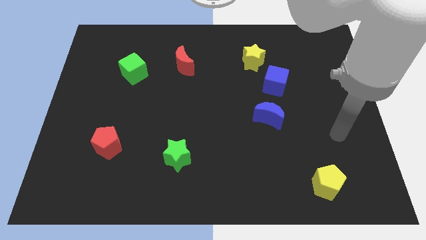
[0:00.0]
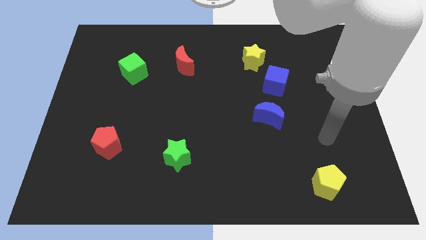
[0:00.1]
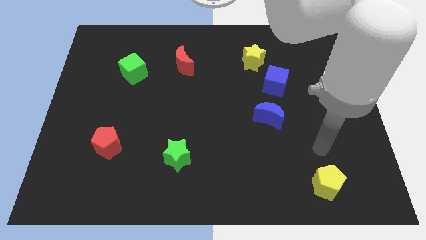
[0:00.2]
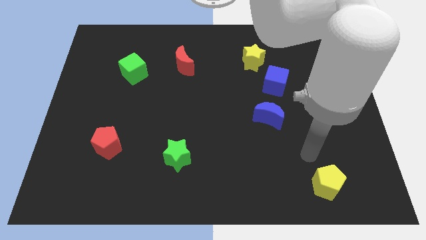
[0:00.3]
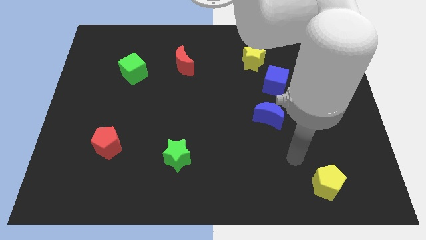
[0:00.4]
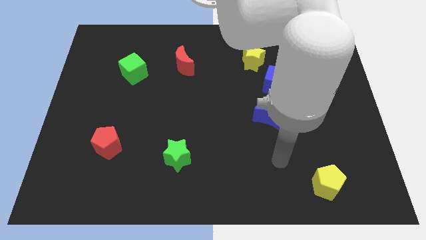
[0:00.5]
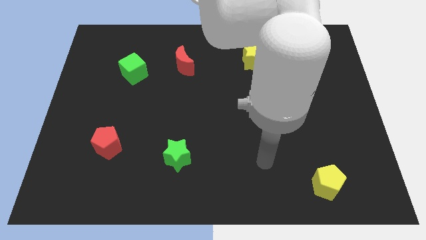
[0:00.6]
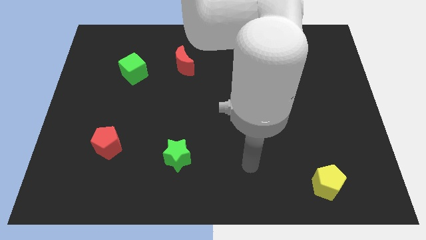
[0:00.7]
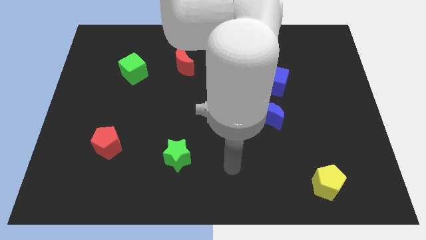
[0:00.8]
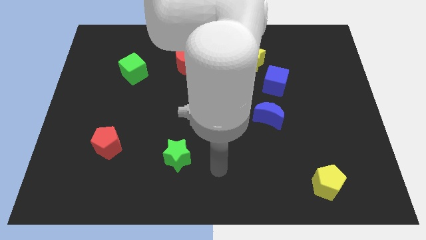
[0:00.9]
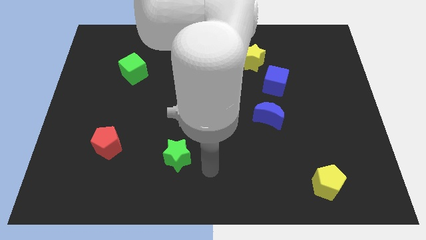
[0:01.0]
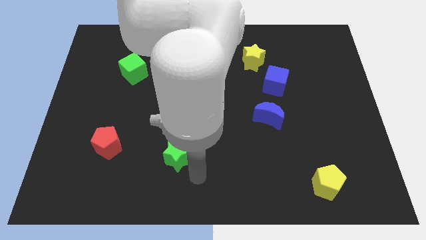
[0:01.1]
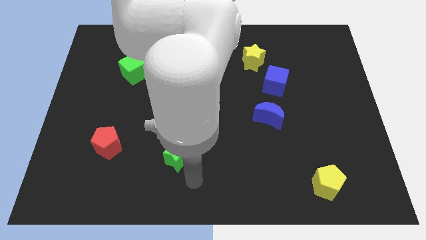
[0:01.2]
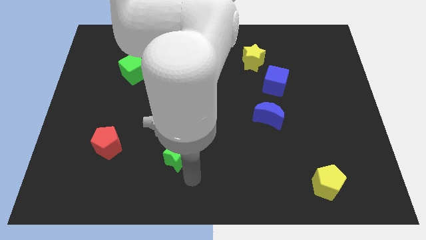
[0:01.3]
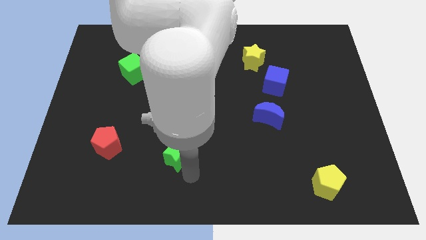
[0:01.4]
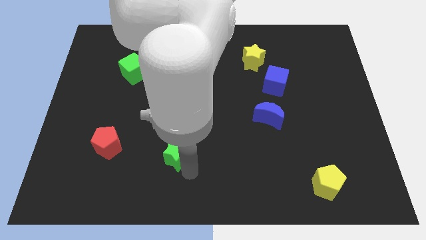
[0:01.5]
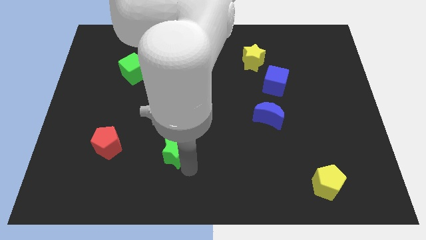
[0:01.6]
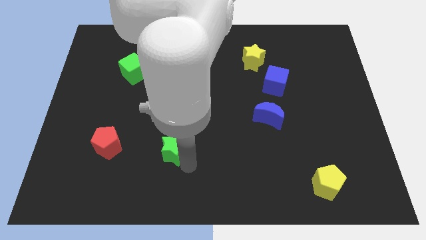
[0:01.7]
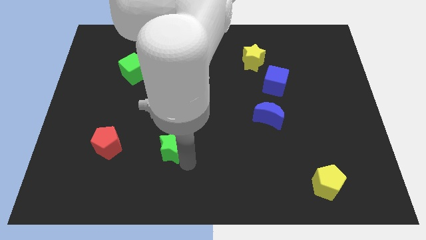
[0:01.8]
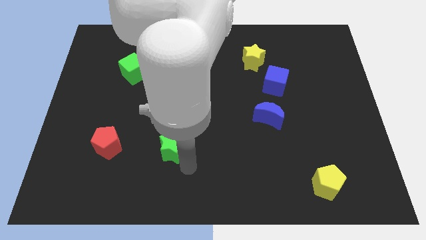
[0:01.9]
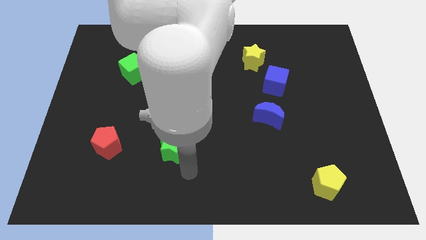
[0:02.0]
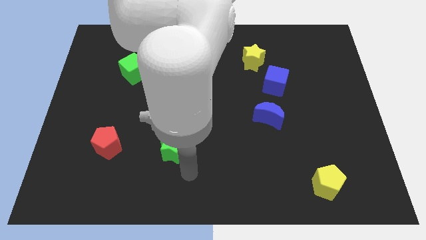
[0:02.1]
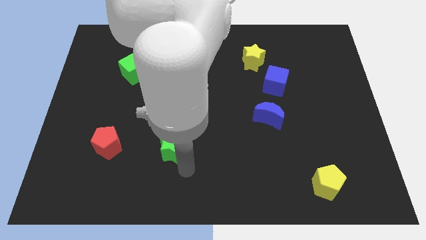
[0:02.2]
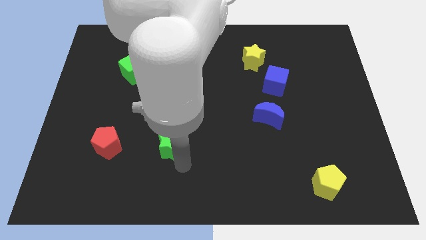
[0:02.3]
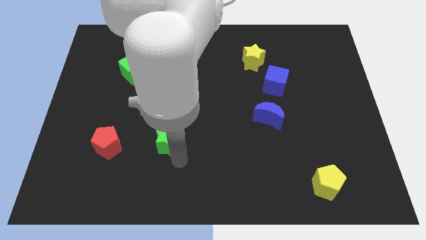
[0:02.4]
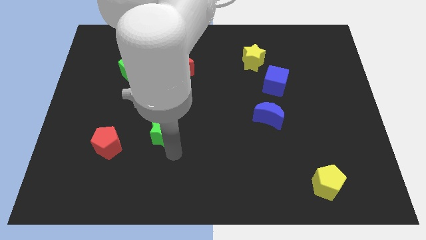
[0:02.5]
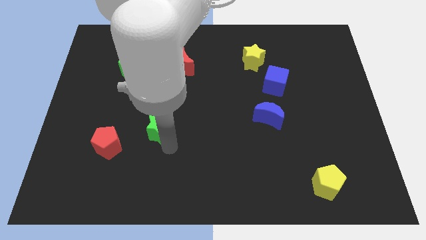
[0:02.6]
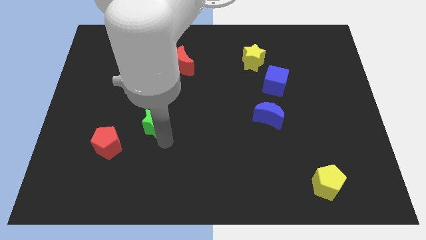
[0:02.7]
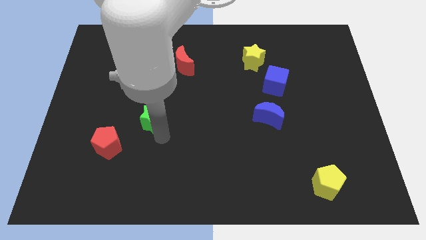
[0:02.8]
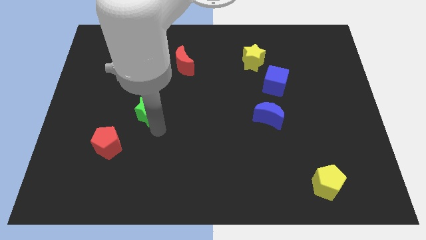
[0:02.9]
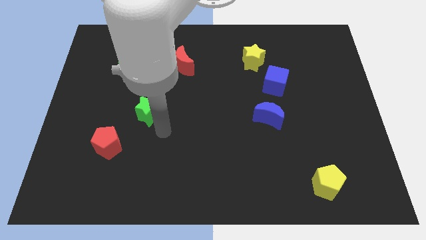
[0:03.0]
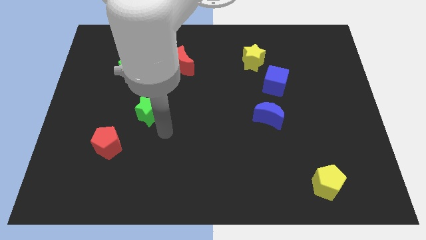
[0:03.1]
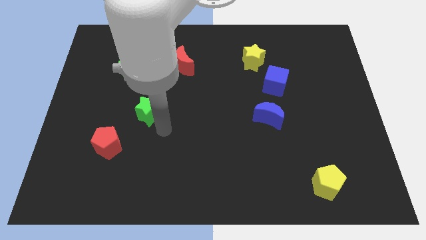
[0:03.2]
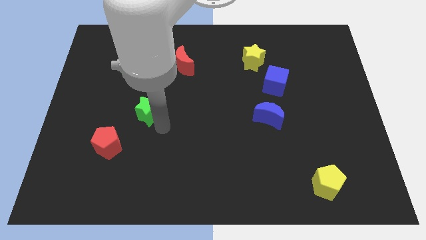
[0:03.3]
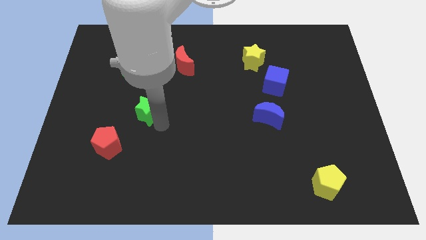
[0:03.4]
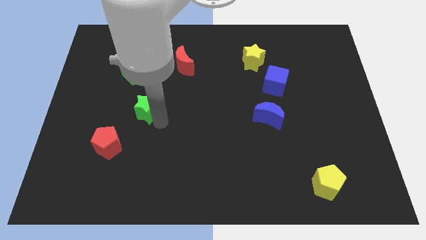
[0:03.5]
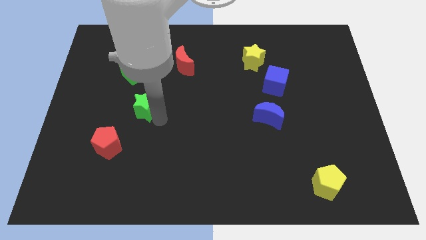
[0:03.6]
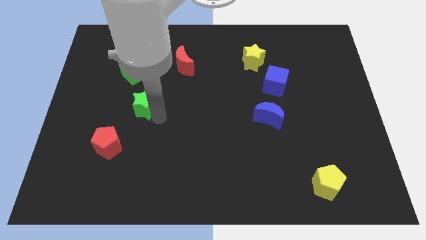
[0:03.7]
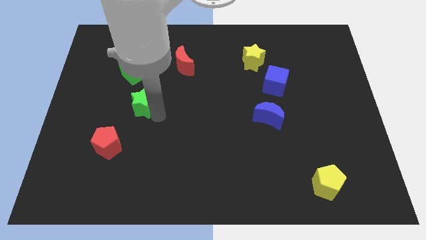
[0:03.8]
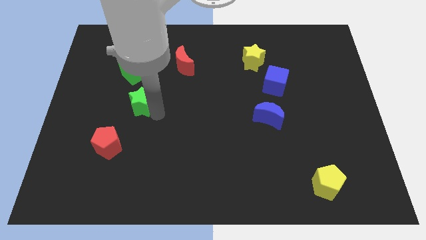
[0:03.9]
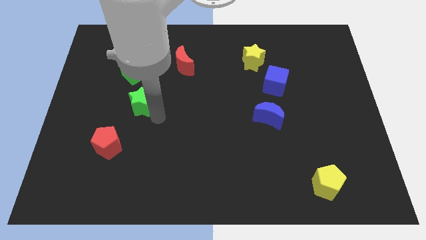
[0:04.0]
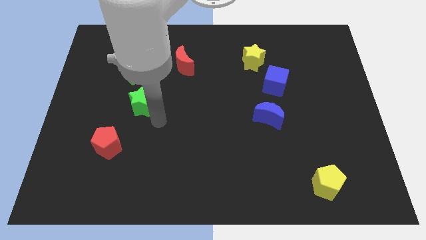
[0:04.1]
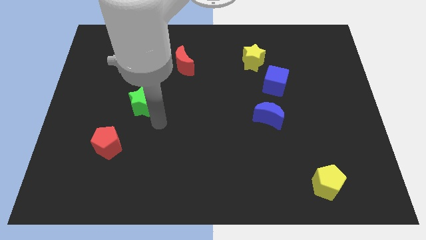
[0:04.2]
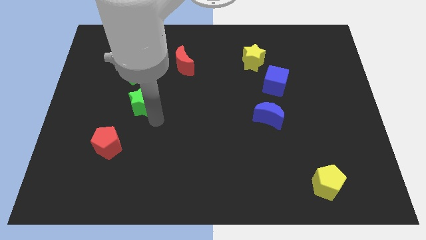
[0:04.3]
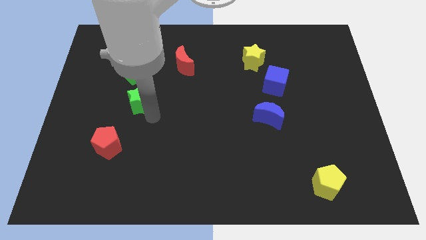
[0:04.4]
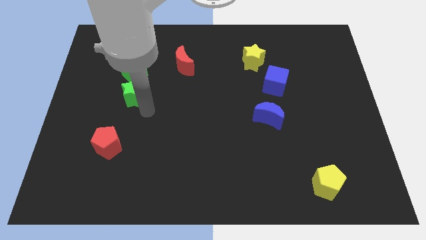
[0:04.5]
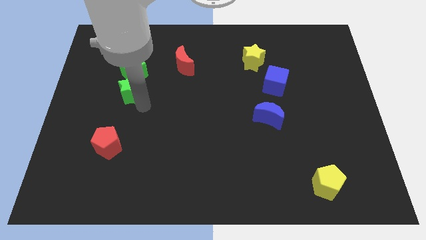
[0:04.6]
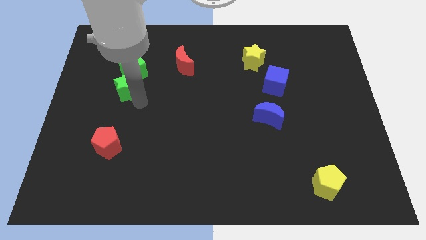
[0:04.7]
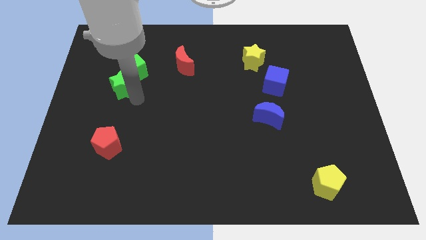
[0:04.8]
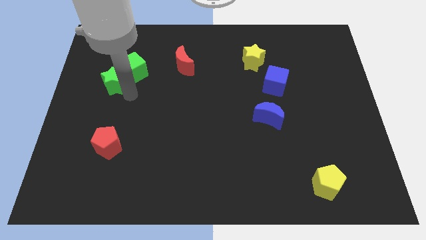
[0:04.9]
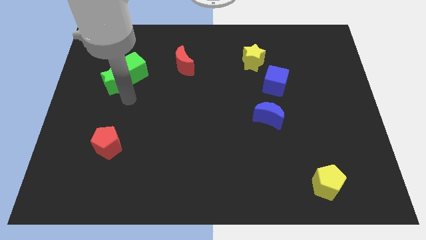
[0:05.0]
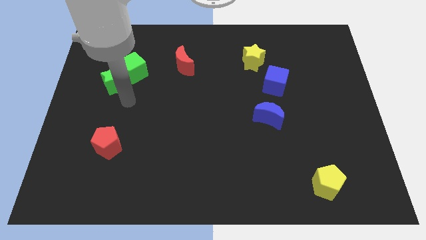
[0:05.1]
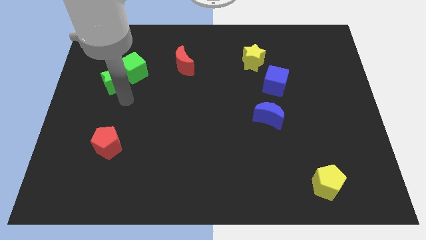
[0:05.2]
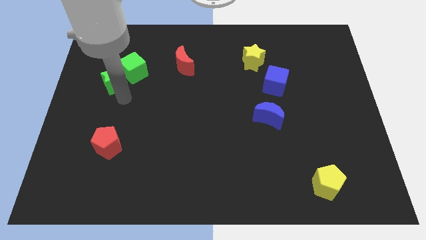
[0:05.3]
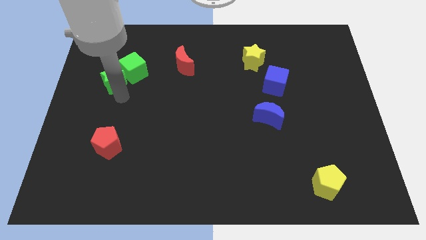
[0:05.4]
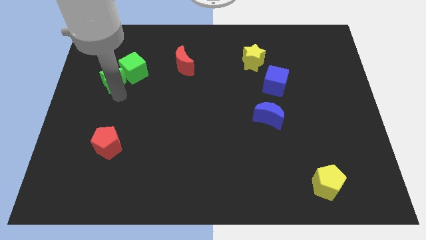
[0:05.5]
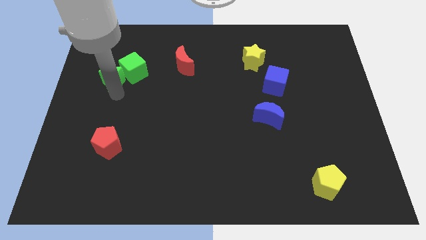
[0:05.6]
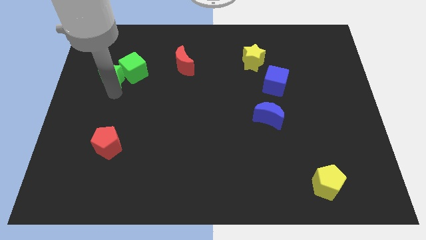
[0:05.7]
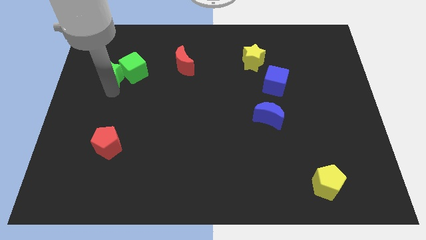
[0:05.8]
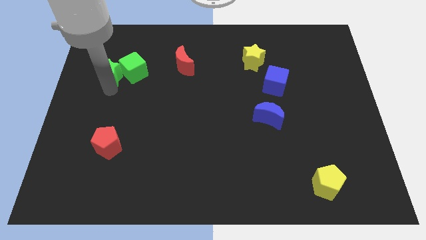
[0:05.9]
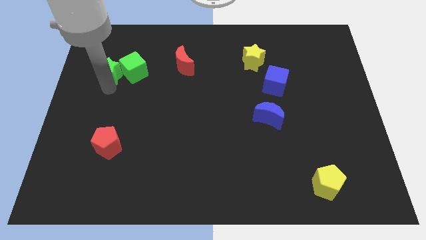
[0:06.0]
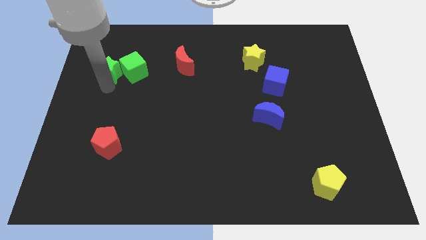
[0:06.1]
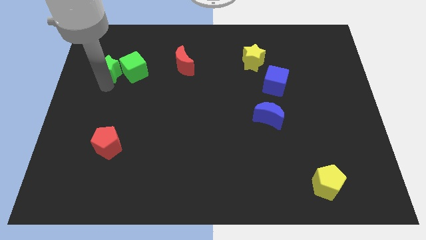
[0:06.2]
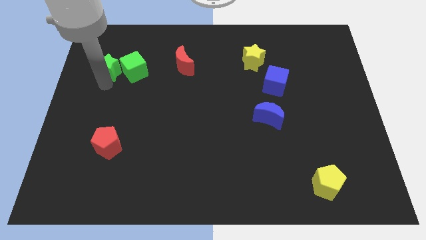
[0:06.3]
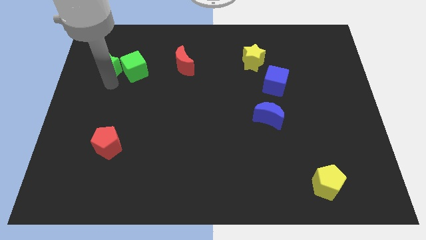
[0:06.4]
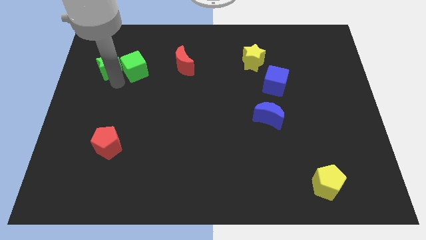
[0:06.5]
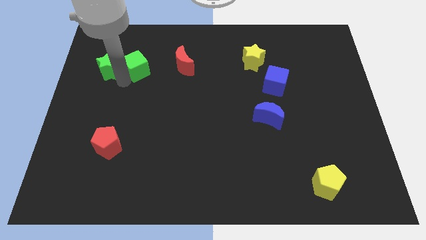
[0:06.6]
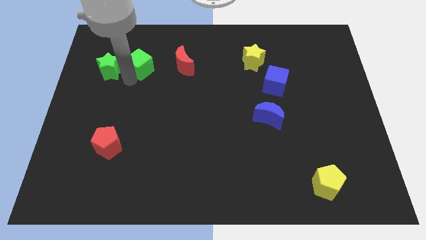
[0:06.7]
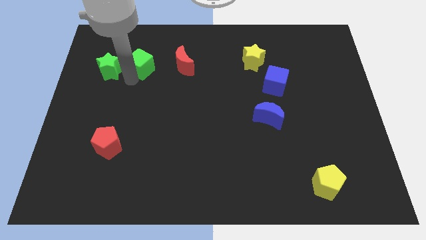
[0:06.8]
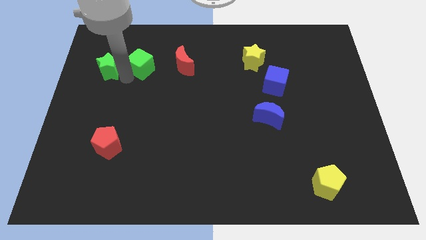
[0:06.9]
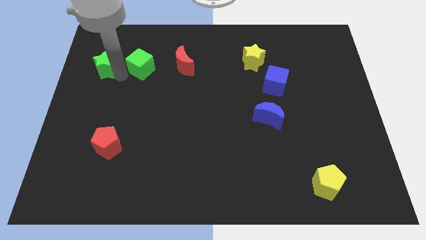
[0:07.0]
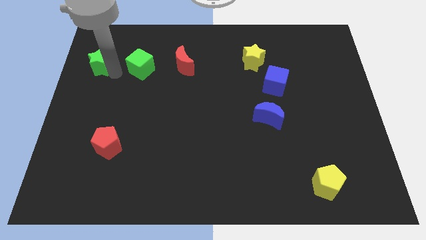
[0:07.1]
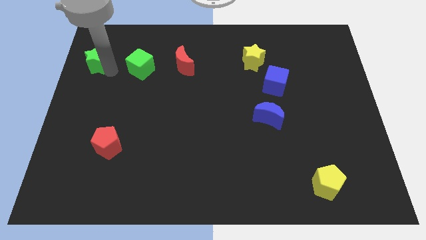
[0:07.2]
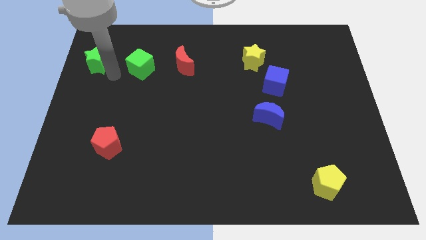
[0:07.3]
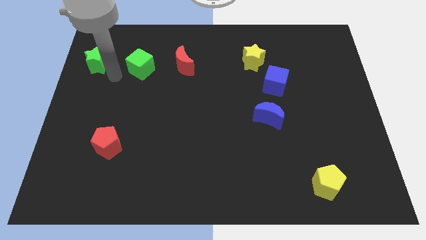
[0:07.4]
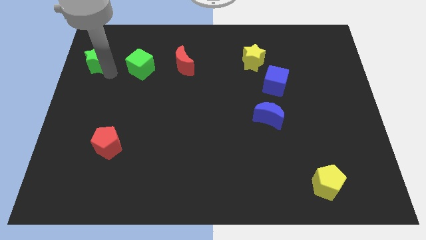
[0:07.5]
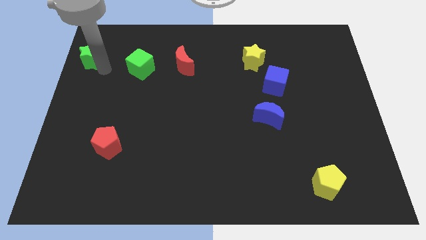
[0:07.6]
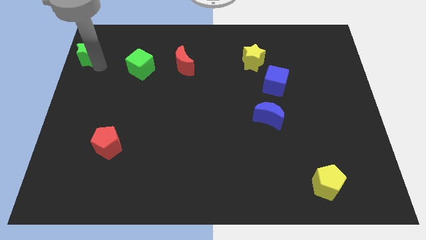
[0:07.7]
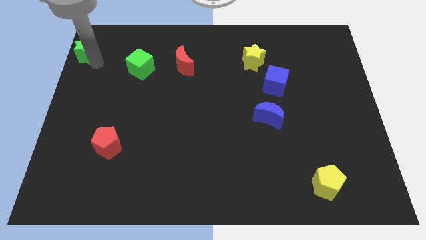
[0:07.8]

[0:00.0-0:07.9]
put the green star to the top left
